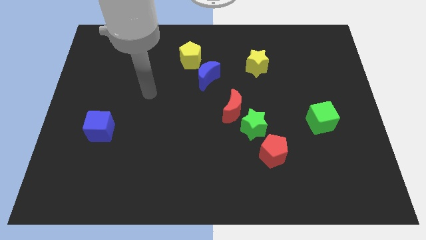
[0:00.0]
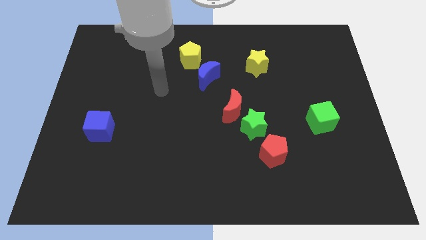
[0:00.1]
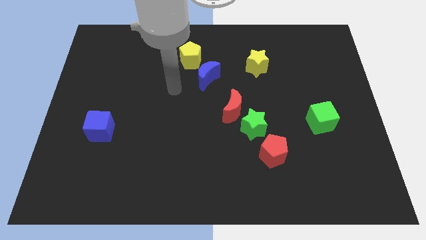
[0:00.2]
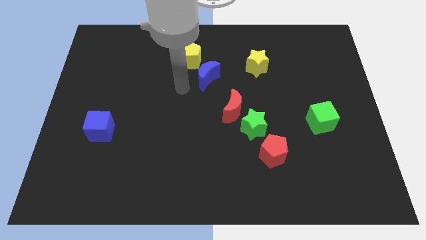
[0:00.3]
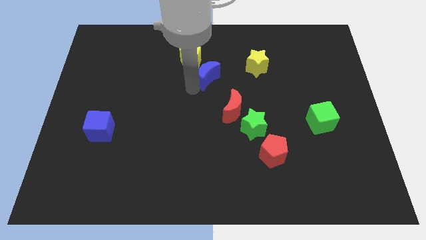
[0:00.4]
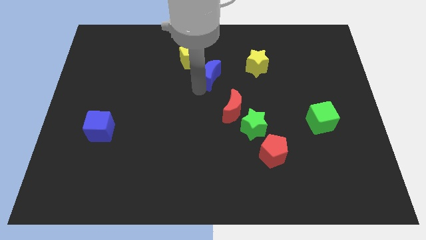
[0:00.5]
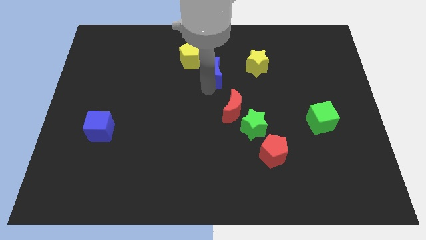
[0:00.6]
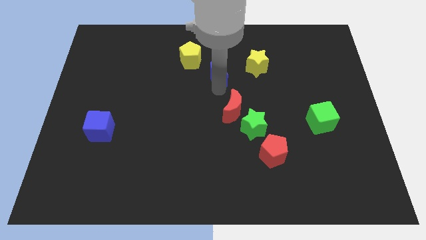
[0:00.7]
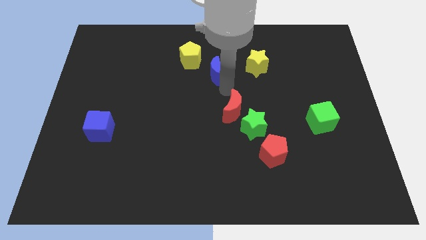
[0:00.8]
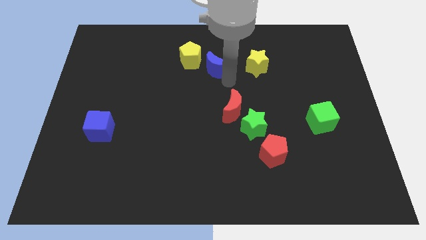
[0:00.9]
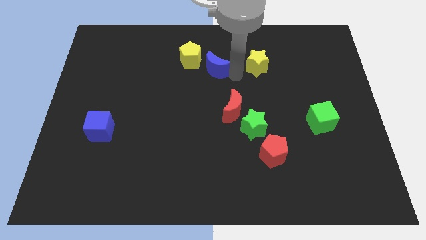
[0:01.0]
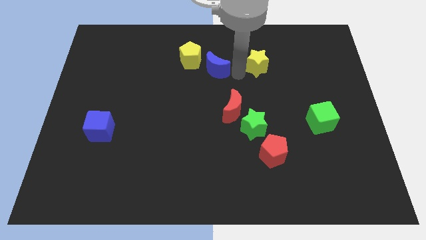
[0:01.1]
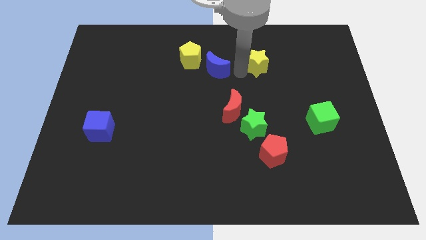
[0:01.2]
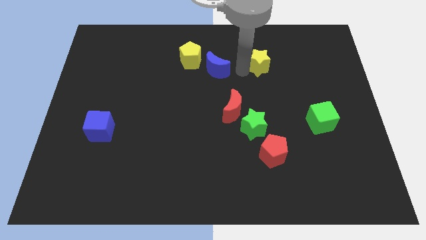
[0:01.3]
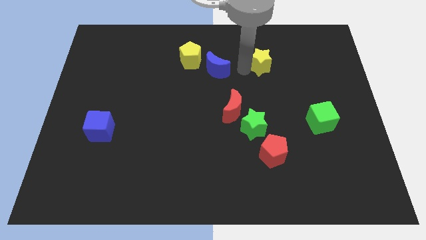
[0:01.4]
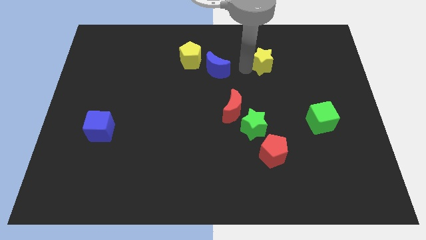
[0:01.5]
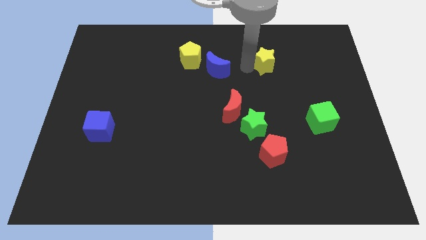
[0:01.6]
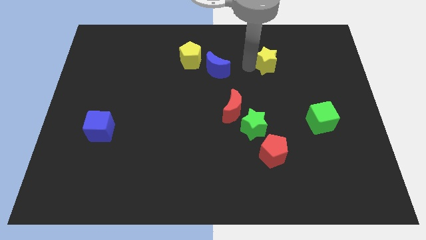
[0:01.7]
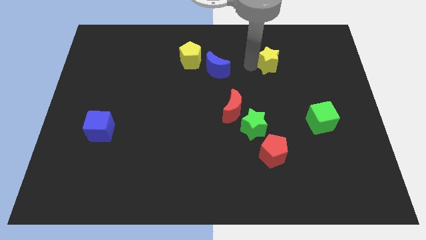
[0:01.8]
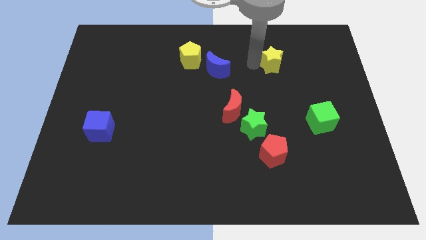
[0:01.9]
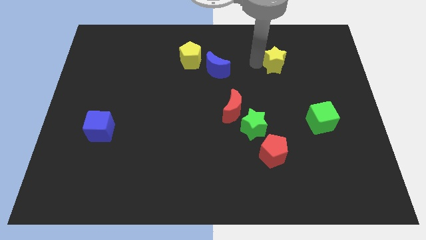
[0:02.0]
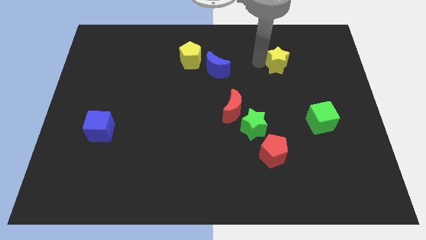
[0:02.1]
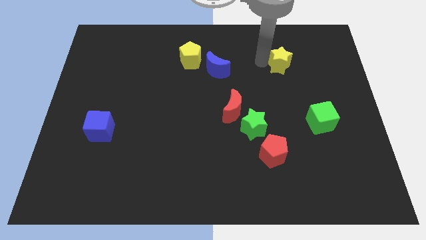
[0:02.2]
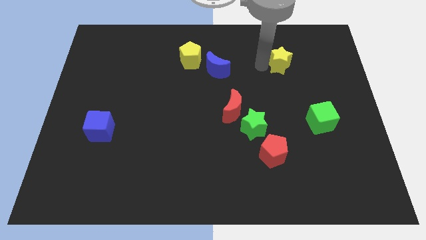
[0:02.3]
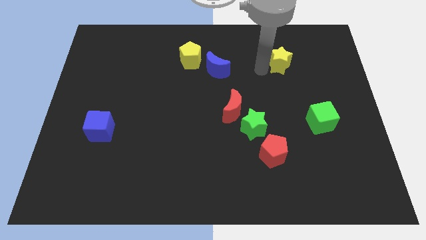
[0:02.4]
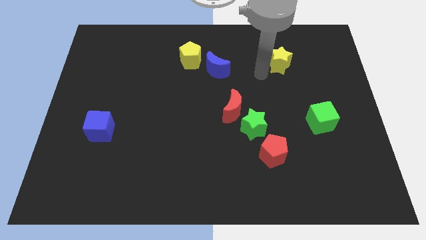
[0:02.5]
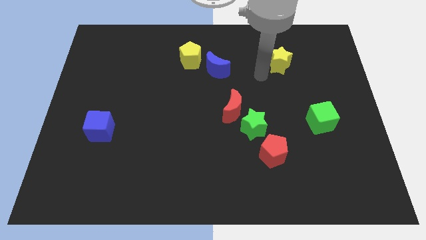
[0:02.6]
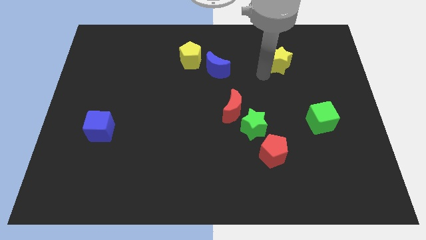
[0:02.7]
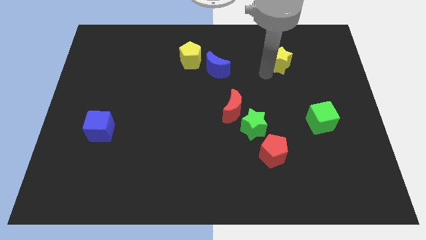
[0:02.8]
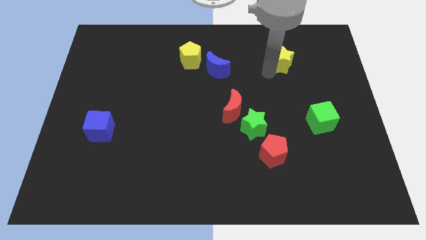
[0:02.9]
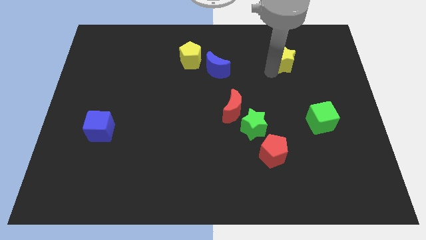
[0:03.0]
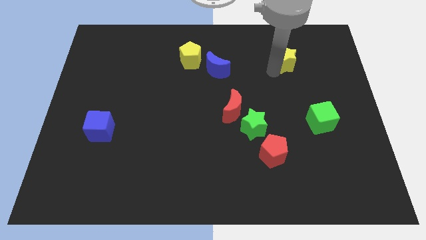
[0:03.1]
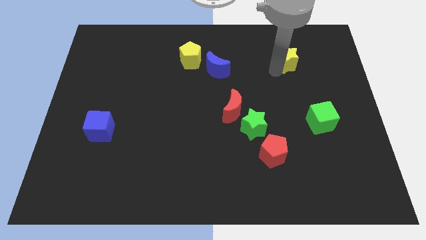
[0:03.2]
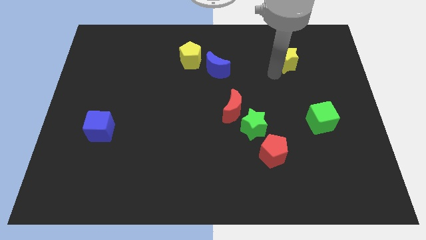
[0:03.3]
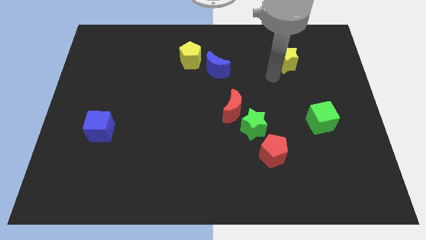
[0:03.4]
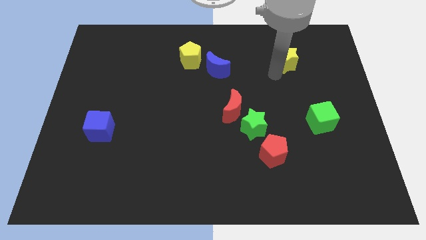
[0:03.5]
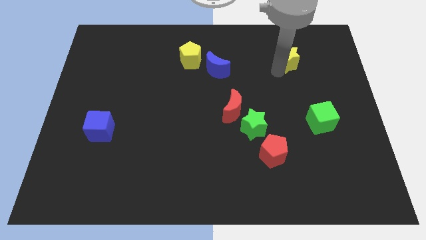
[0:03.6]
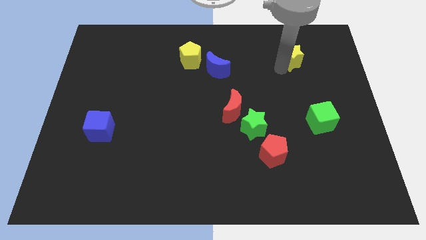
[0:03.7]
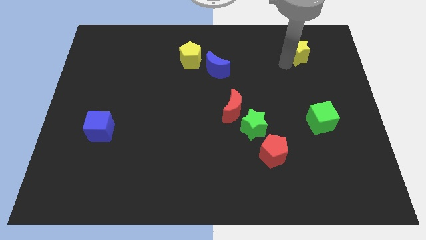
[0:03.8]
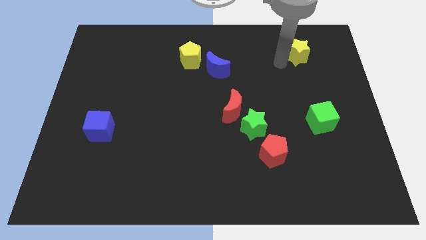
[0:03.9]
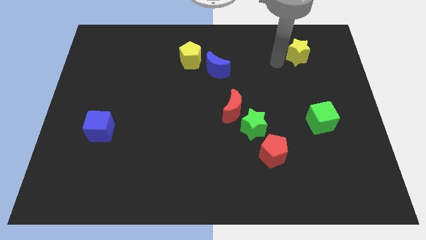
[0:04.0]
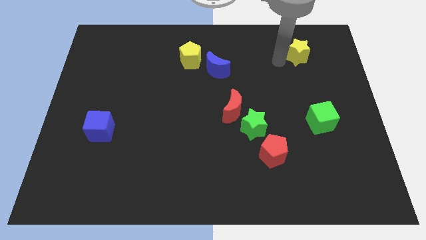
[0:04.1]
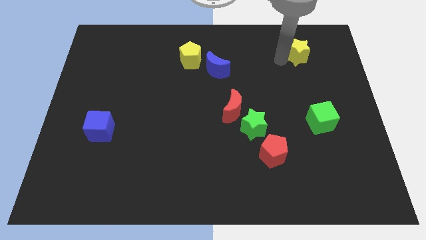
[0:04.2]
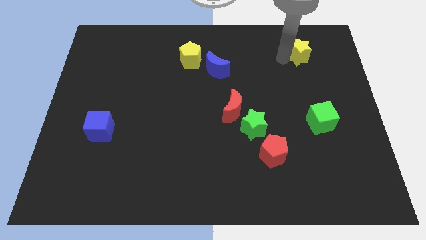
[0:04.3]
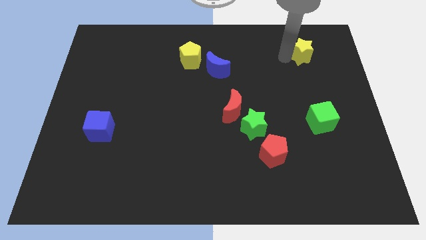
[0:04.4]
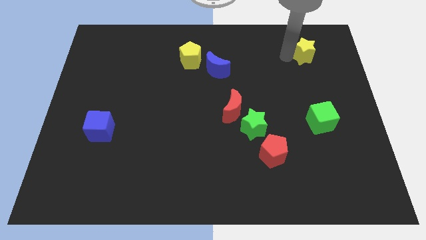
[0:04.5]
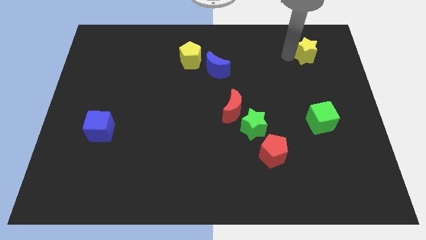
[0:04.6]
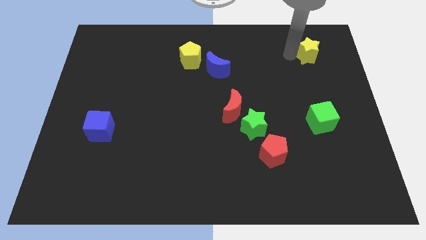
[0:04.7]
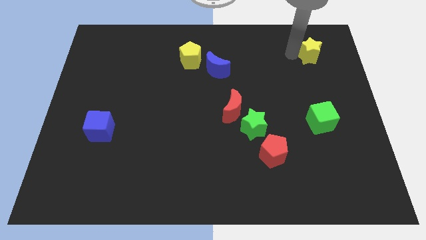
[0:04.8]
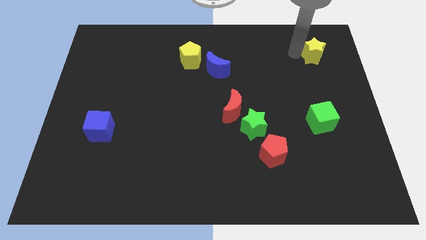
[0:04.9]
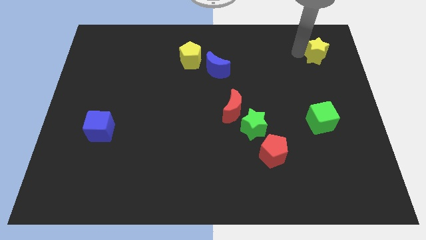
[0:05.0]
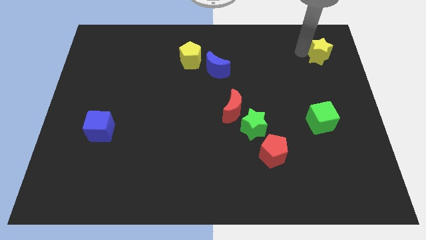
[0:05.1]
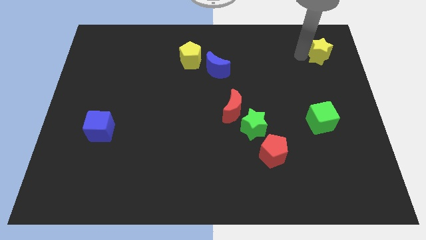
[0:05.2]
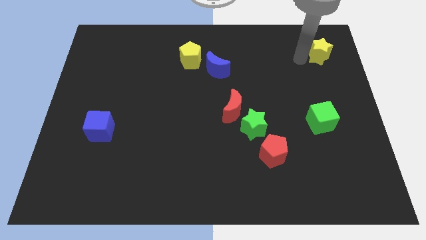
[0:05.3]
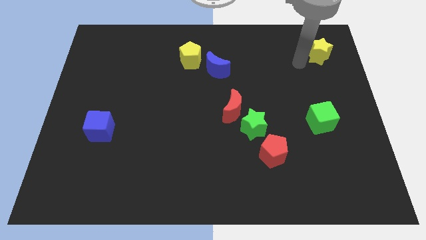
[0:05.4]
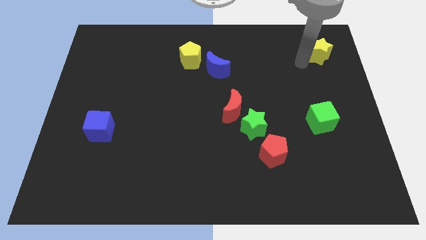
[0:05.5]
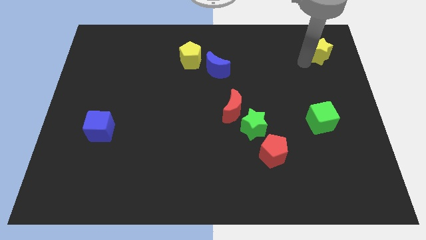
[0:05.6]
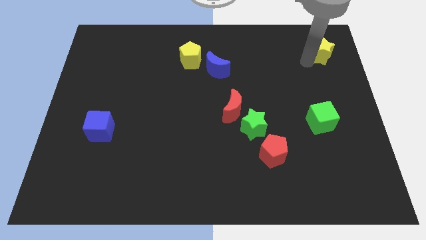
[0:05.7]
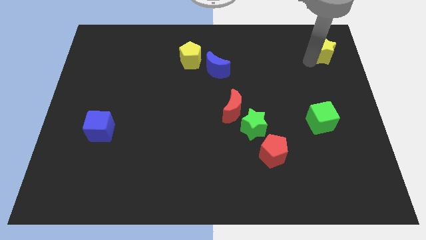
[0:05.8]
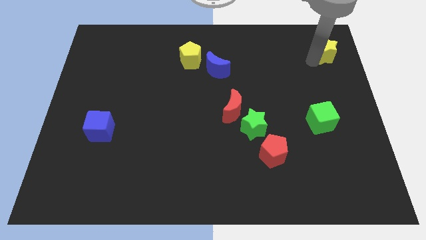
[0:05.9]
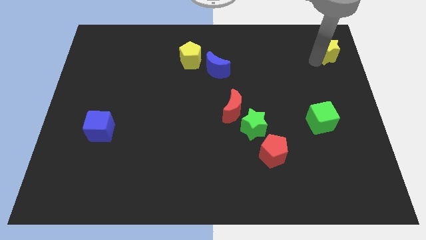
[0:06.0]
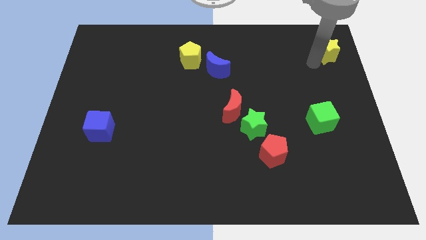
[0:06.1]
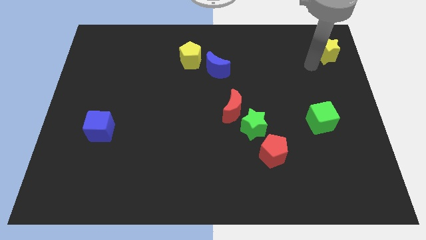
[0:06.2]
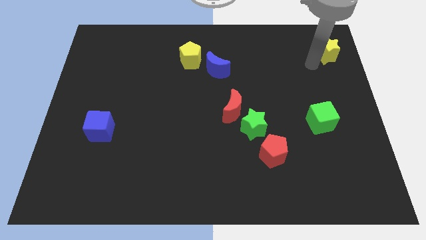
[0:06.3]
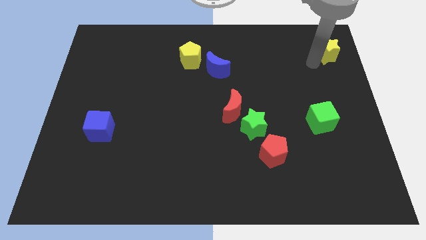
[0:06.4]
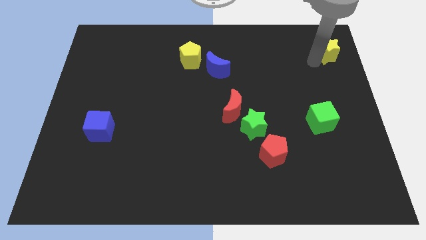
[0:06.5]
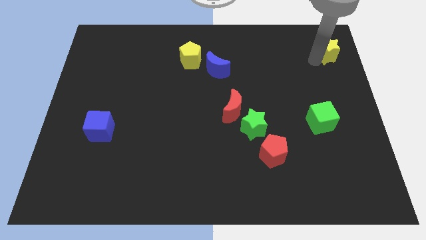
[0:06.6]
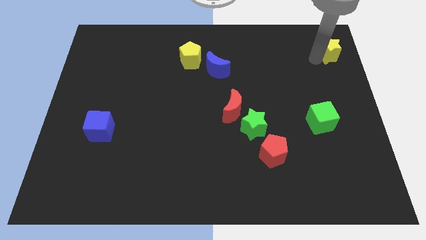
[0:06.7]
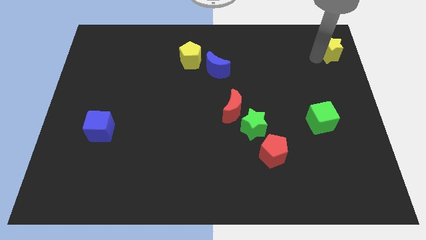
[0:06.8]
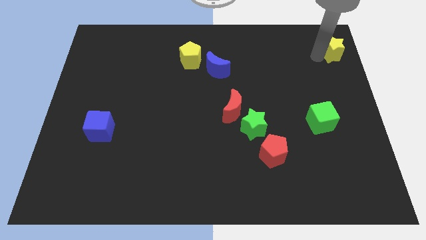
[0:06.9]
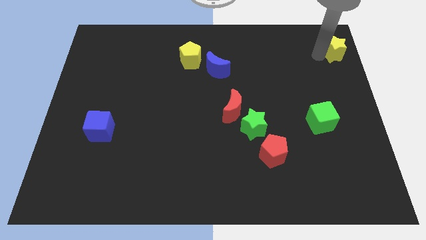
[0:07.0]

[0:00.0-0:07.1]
slide the yellow star to the top right
